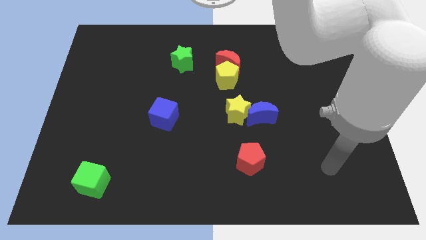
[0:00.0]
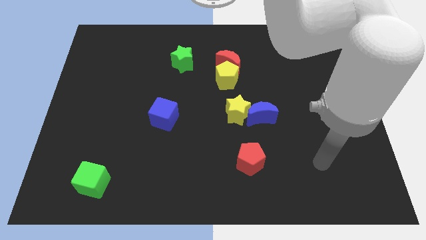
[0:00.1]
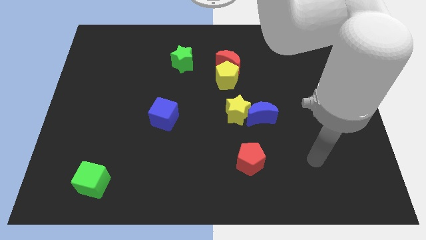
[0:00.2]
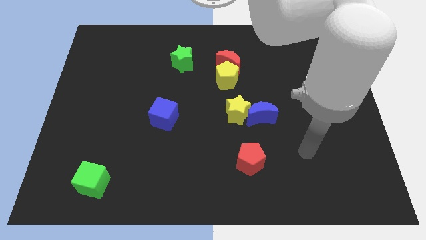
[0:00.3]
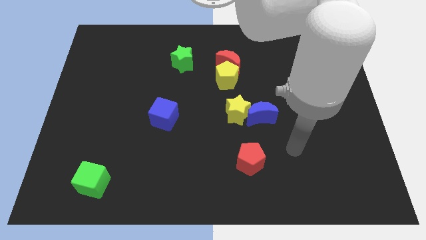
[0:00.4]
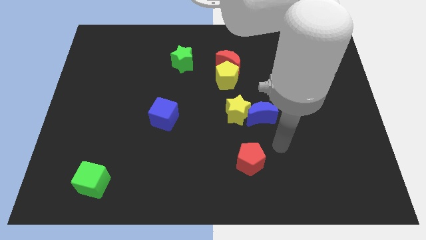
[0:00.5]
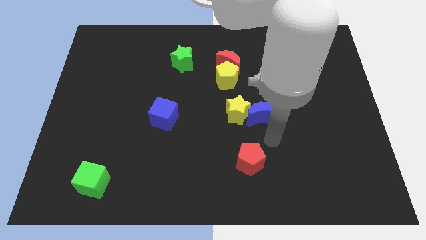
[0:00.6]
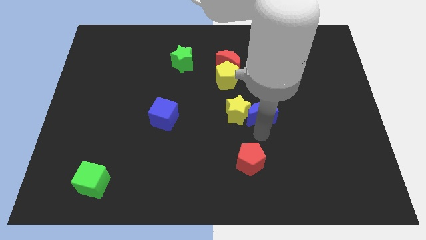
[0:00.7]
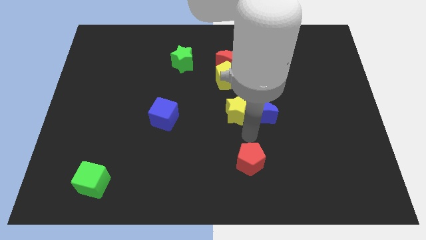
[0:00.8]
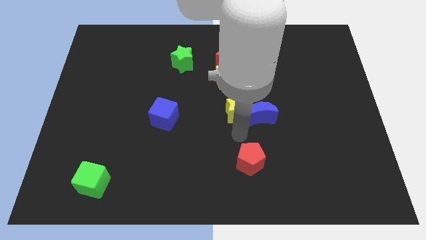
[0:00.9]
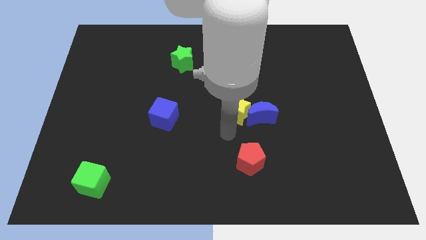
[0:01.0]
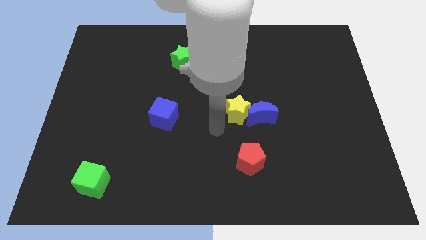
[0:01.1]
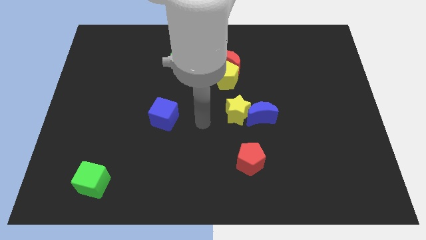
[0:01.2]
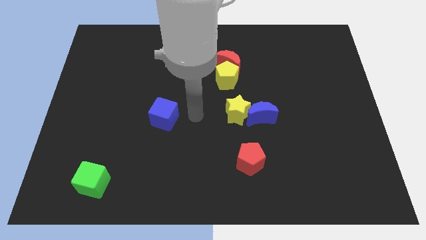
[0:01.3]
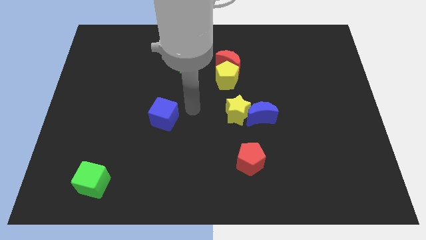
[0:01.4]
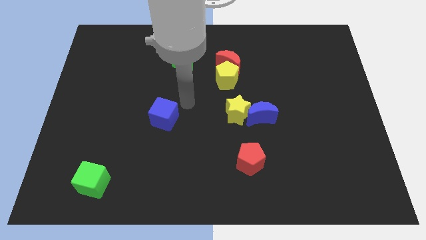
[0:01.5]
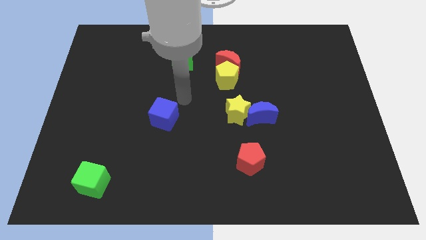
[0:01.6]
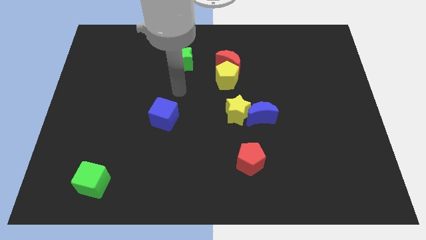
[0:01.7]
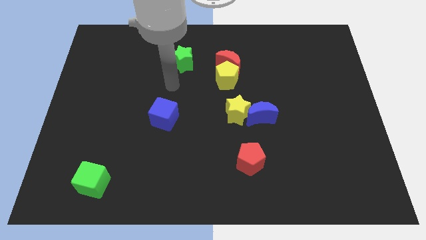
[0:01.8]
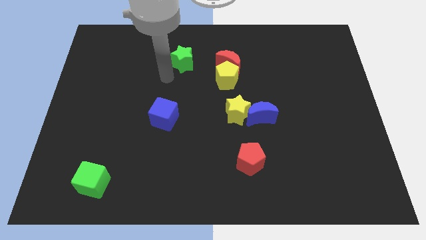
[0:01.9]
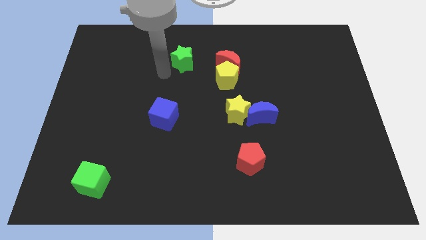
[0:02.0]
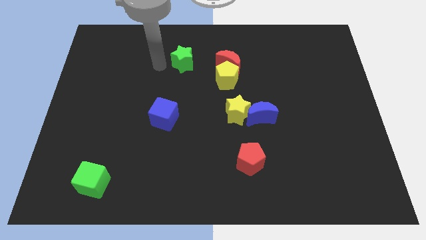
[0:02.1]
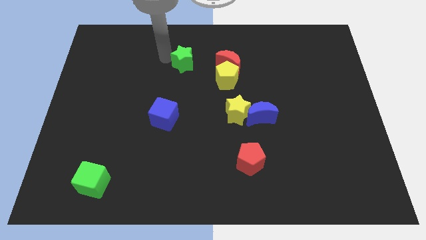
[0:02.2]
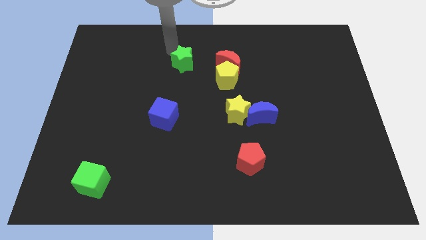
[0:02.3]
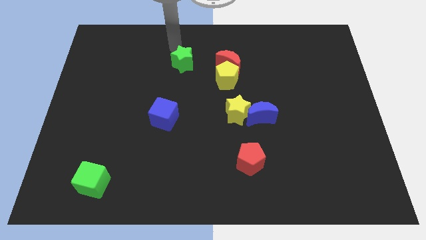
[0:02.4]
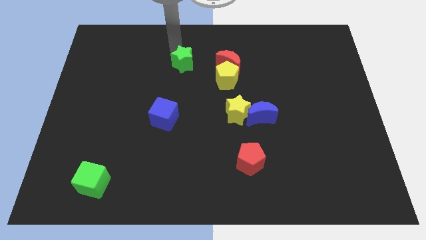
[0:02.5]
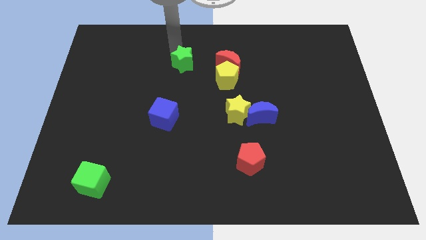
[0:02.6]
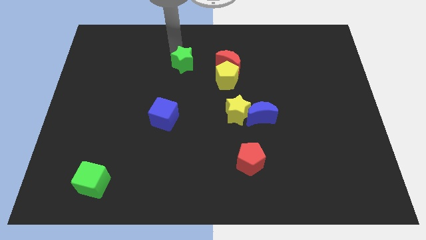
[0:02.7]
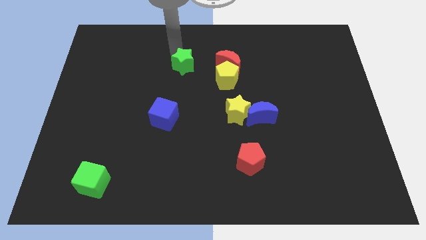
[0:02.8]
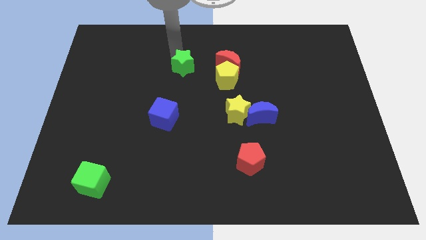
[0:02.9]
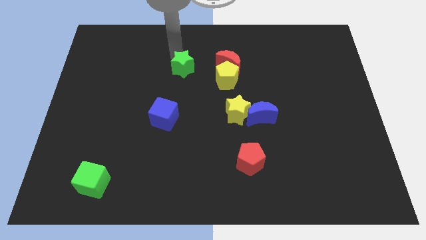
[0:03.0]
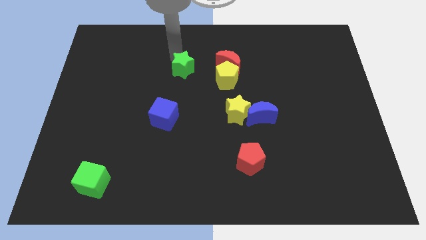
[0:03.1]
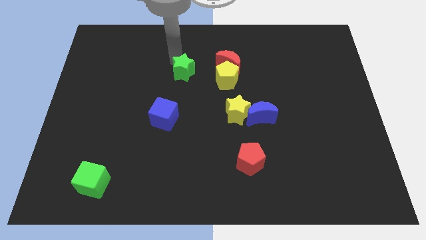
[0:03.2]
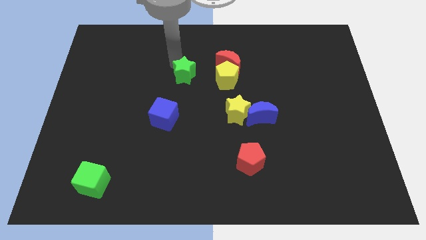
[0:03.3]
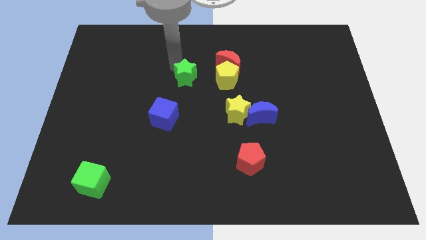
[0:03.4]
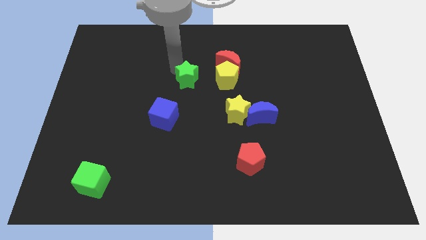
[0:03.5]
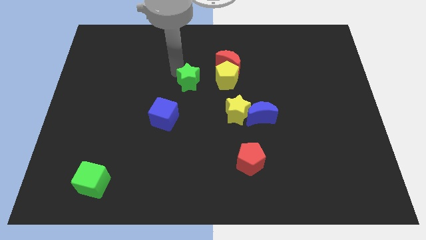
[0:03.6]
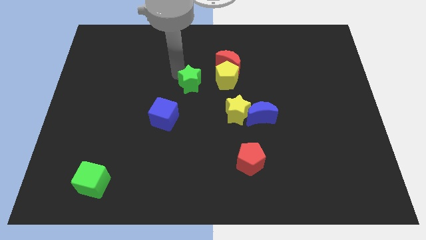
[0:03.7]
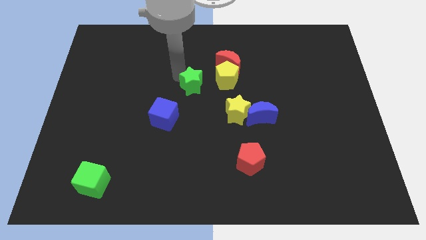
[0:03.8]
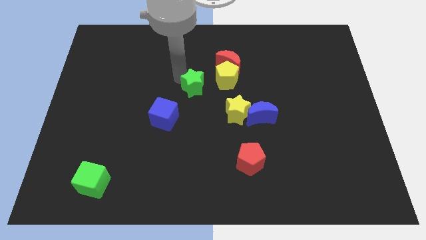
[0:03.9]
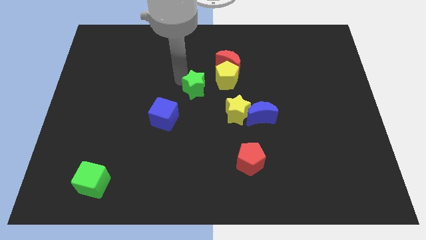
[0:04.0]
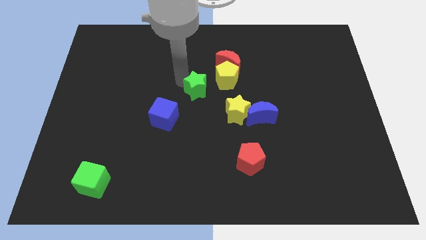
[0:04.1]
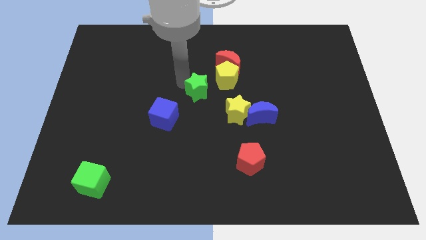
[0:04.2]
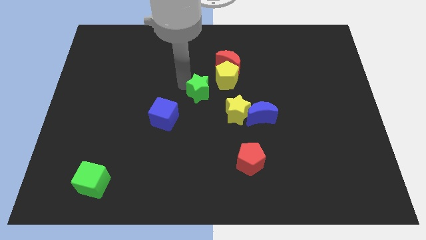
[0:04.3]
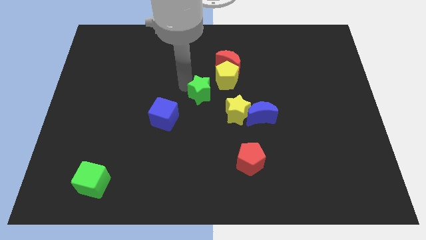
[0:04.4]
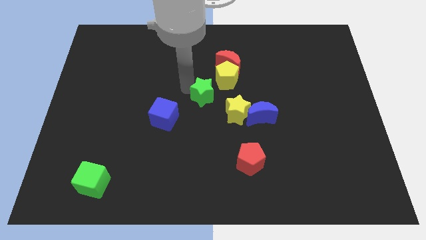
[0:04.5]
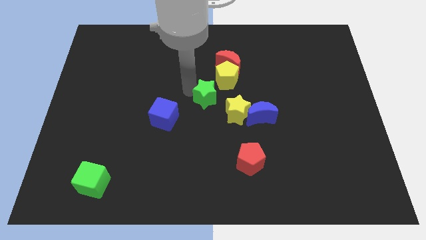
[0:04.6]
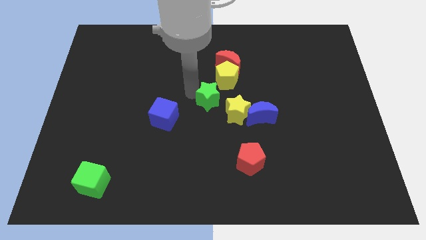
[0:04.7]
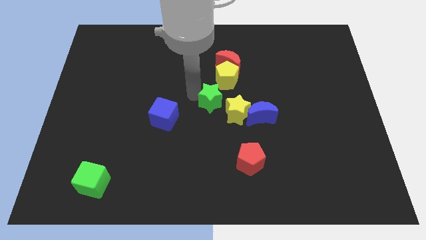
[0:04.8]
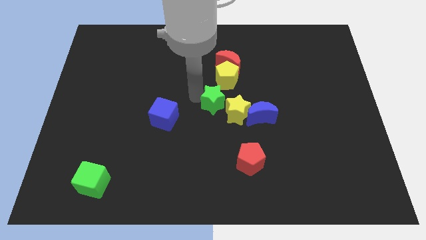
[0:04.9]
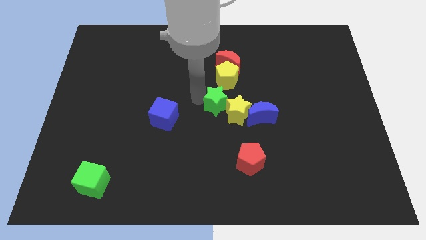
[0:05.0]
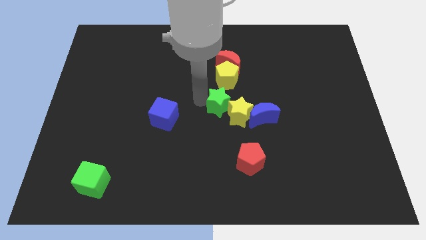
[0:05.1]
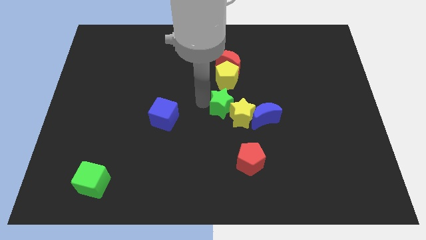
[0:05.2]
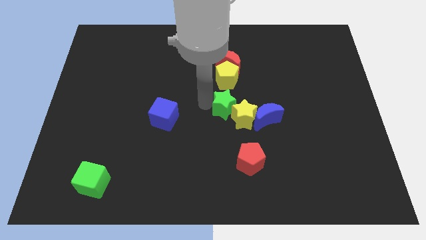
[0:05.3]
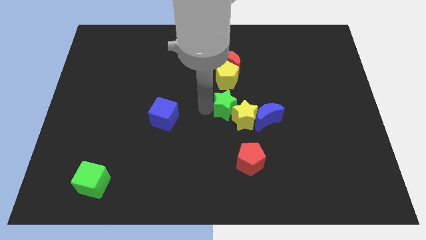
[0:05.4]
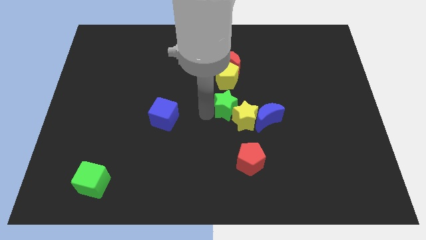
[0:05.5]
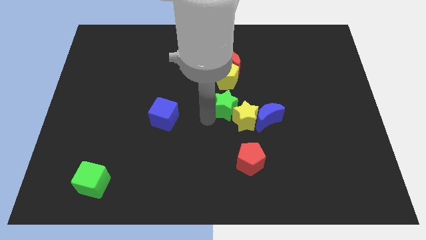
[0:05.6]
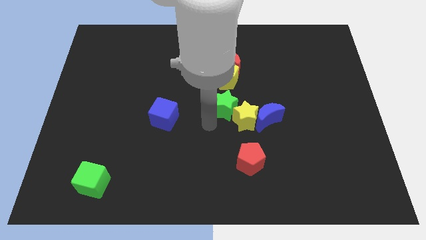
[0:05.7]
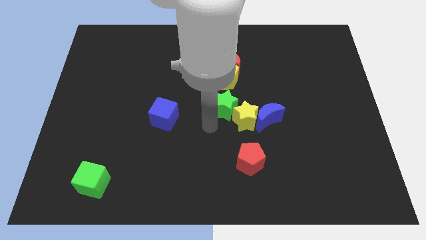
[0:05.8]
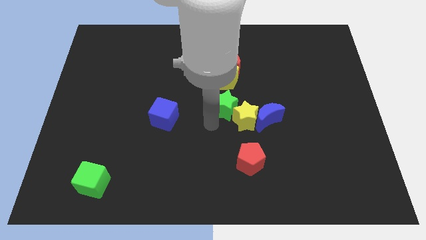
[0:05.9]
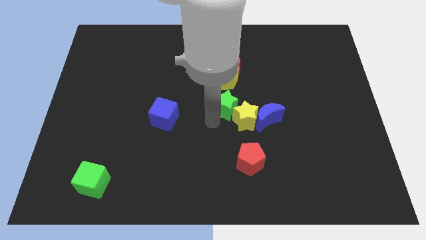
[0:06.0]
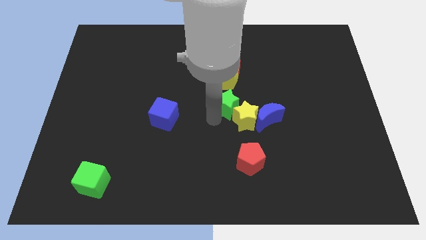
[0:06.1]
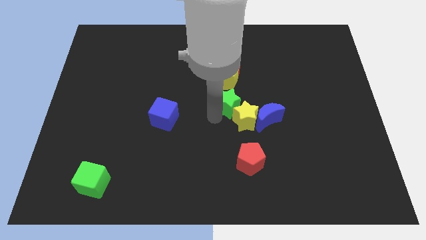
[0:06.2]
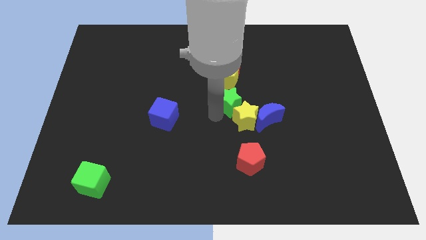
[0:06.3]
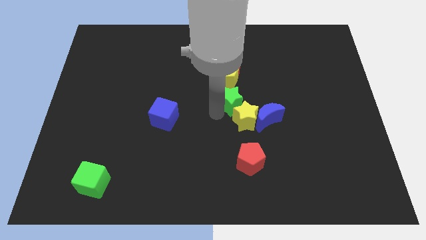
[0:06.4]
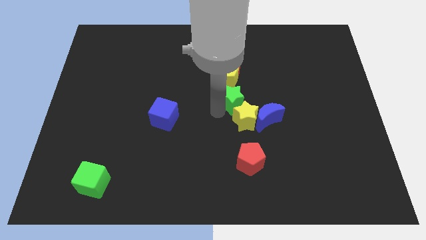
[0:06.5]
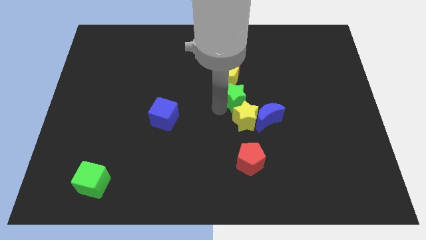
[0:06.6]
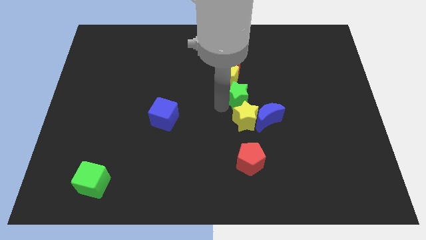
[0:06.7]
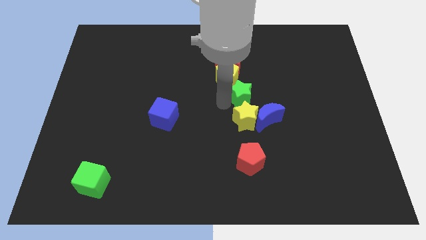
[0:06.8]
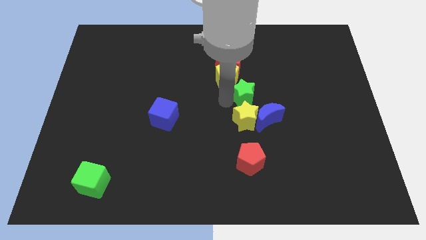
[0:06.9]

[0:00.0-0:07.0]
put the green star to the top side of the blue moon
